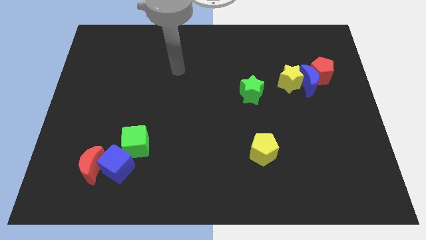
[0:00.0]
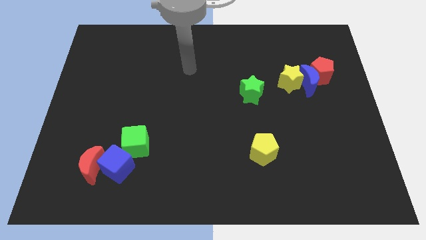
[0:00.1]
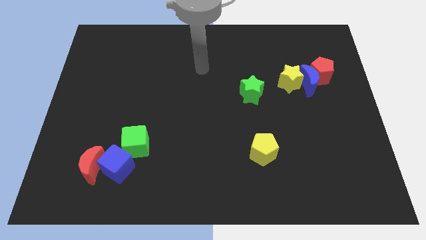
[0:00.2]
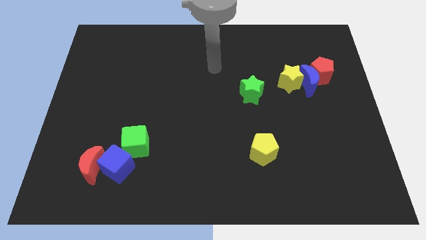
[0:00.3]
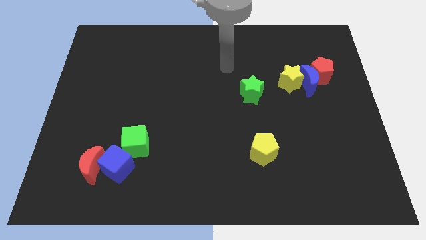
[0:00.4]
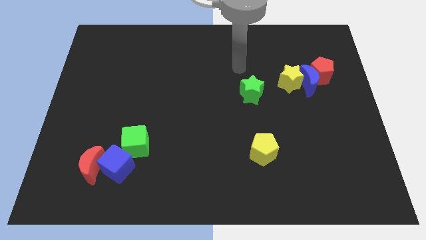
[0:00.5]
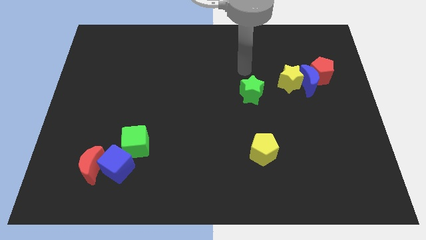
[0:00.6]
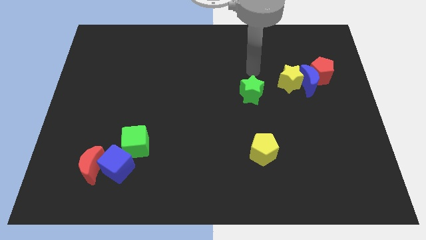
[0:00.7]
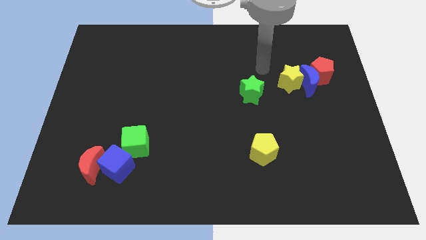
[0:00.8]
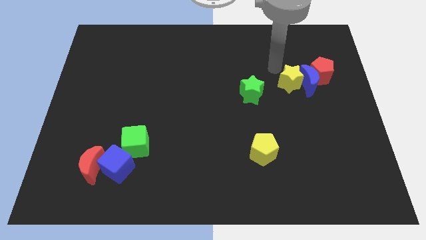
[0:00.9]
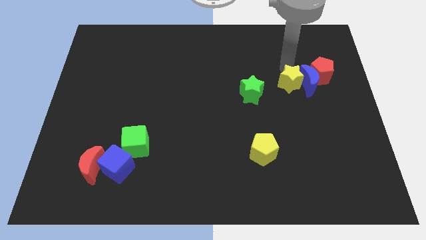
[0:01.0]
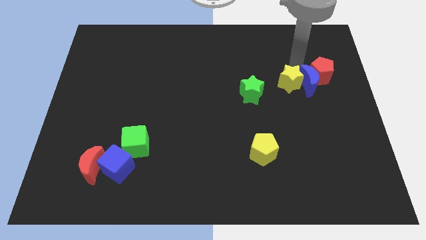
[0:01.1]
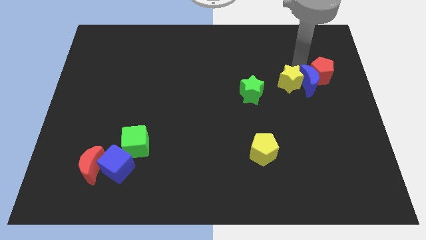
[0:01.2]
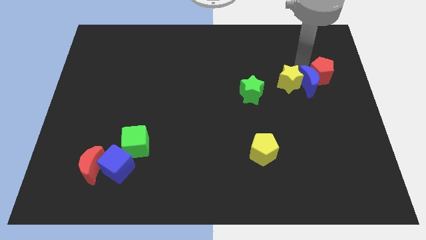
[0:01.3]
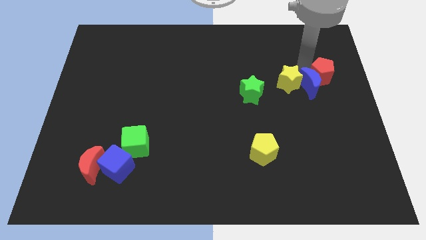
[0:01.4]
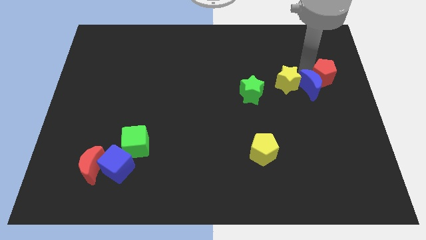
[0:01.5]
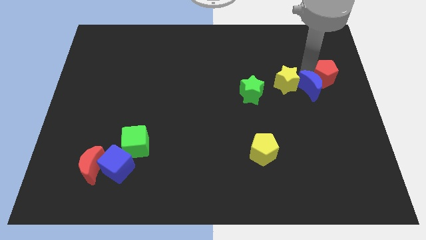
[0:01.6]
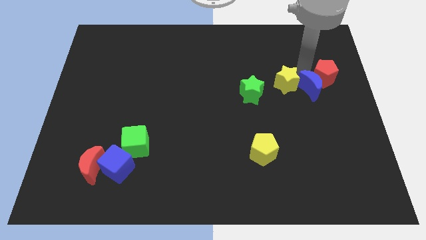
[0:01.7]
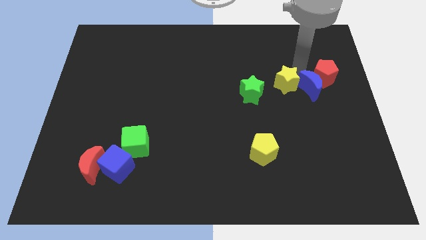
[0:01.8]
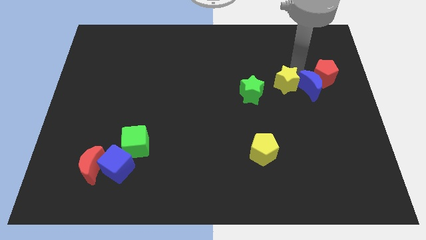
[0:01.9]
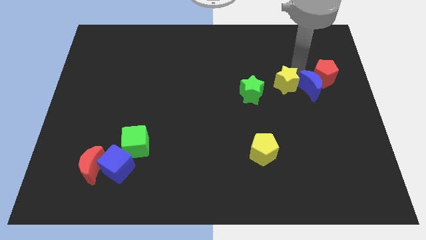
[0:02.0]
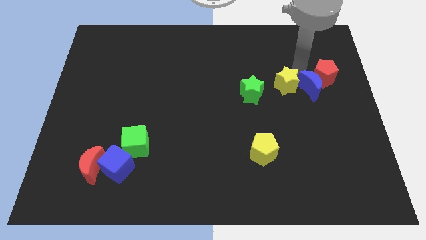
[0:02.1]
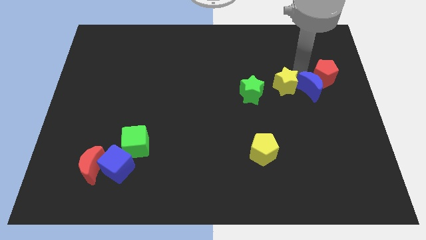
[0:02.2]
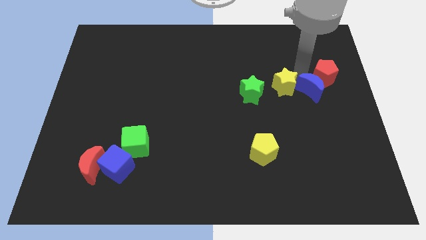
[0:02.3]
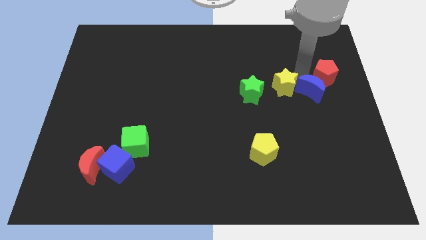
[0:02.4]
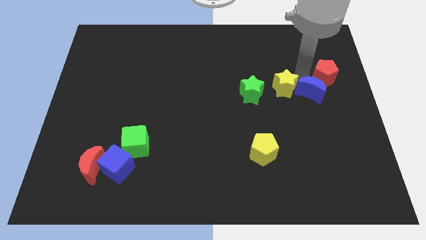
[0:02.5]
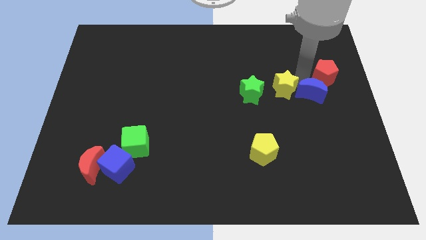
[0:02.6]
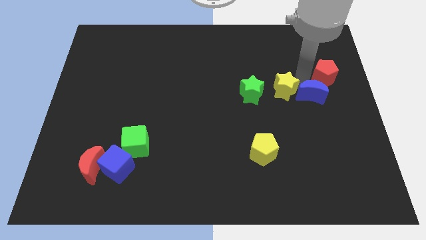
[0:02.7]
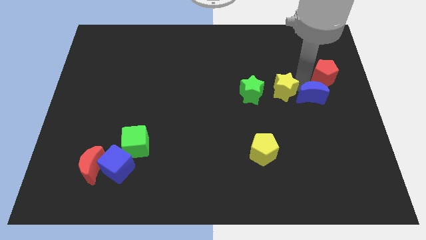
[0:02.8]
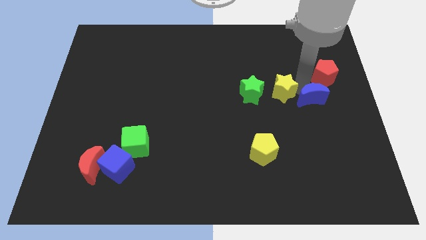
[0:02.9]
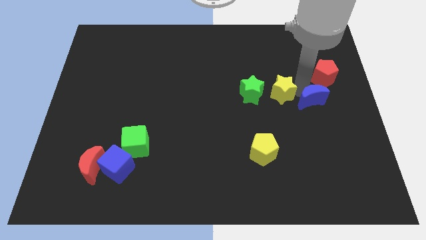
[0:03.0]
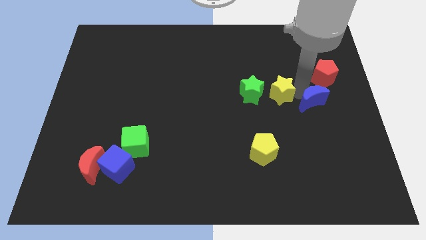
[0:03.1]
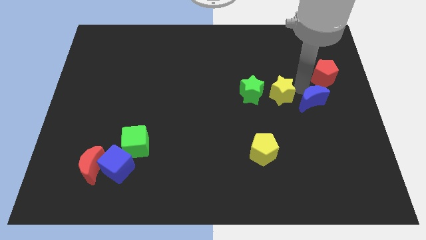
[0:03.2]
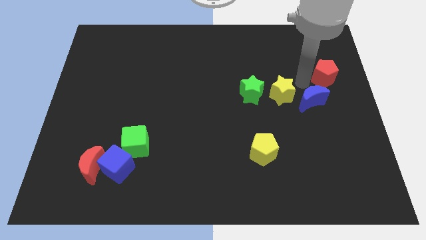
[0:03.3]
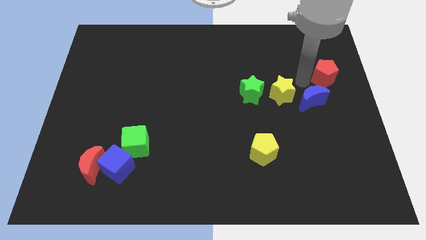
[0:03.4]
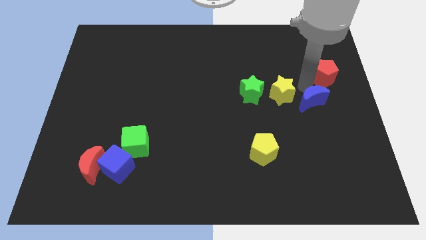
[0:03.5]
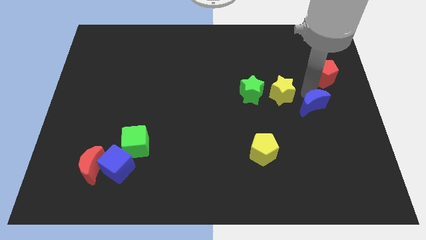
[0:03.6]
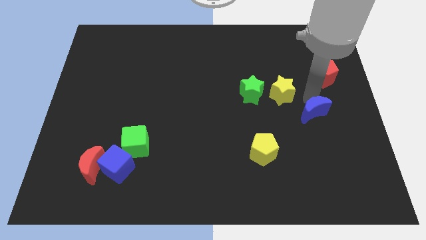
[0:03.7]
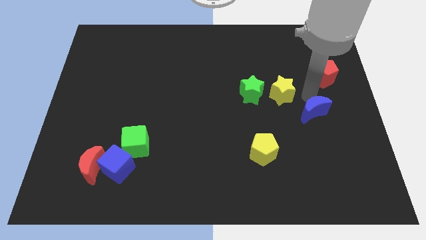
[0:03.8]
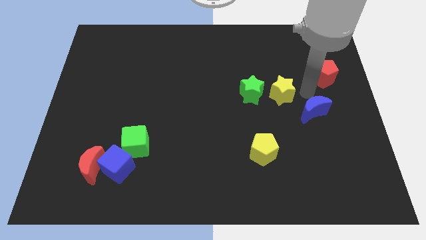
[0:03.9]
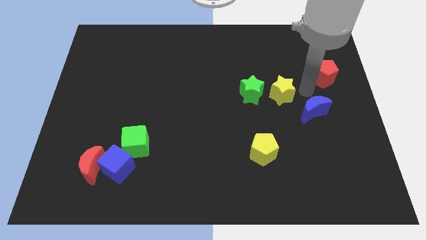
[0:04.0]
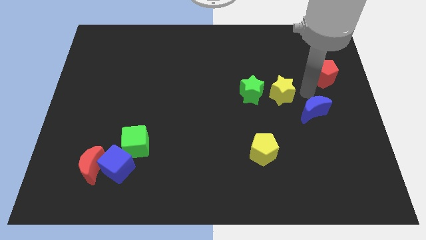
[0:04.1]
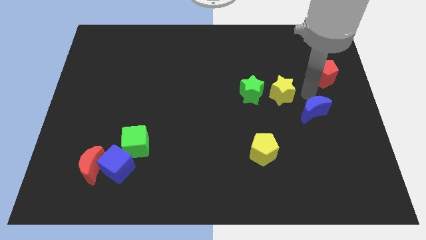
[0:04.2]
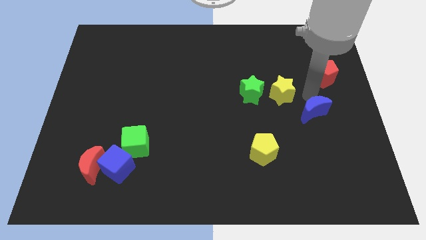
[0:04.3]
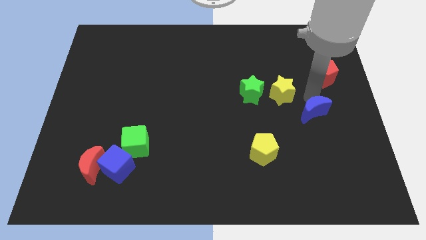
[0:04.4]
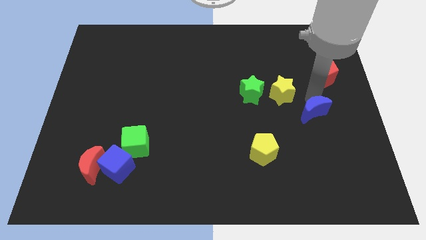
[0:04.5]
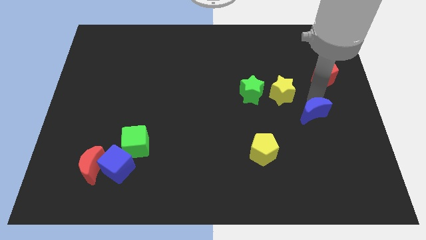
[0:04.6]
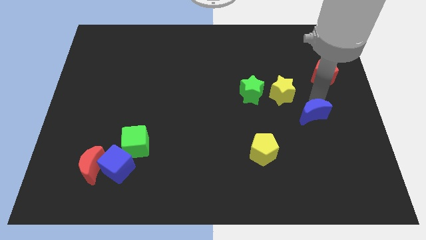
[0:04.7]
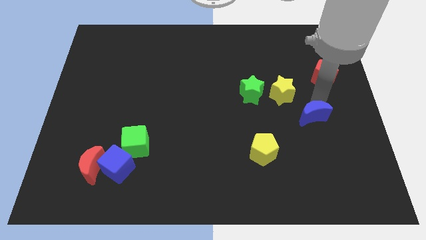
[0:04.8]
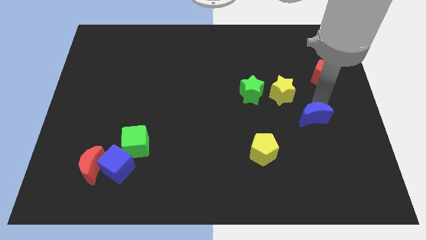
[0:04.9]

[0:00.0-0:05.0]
separate the blue moon from the red pentagon and yellow star

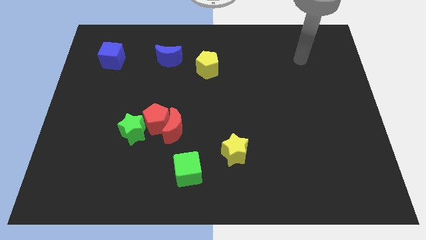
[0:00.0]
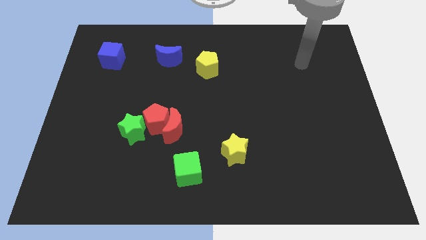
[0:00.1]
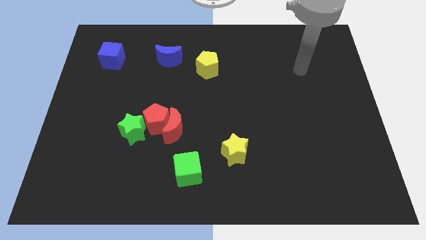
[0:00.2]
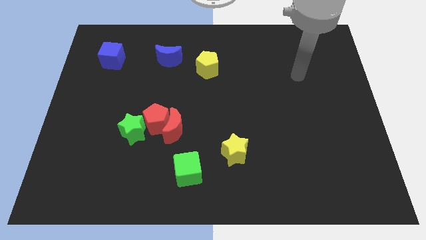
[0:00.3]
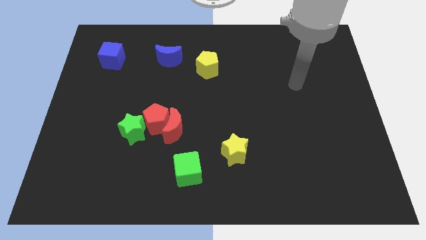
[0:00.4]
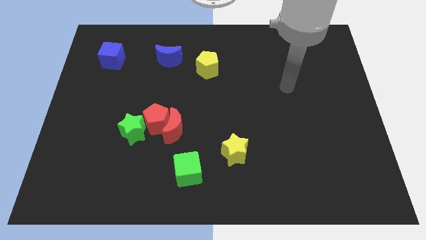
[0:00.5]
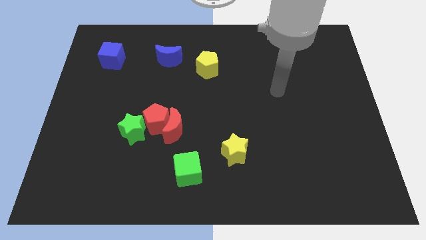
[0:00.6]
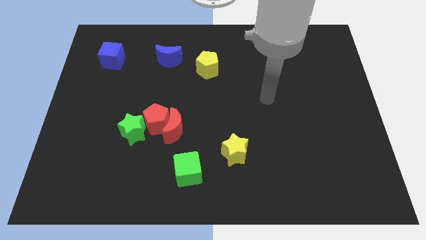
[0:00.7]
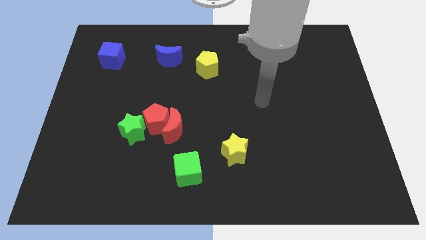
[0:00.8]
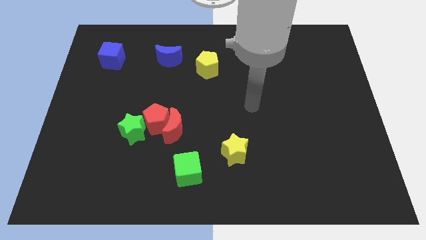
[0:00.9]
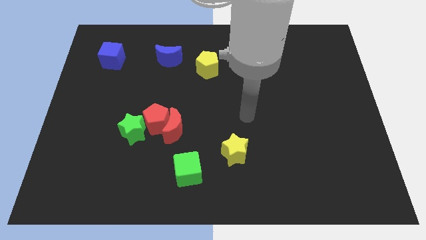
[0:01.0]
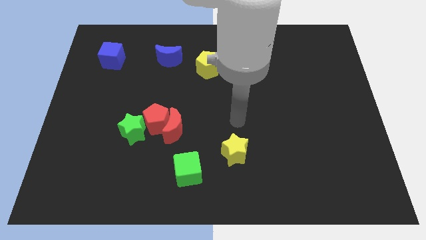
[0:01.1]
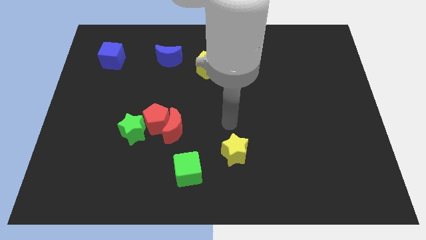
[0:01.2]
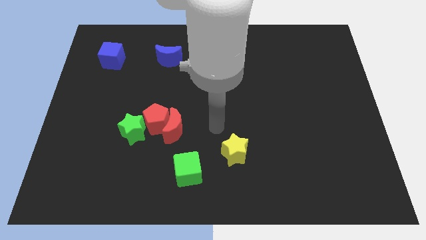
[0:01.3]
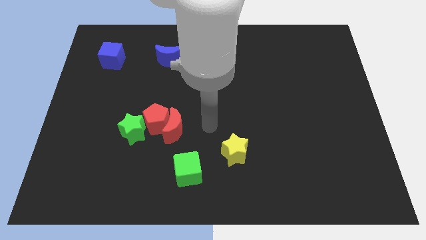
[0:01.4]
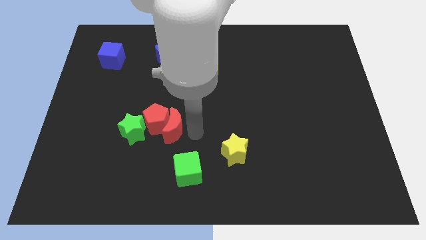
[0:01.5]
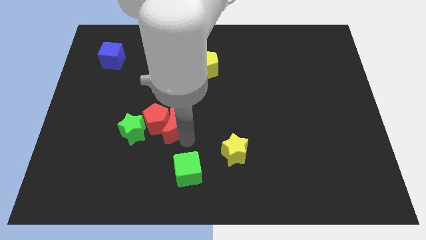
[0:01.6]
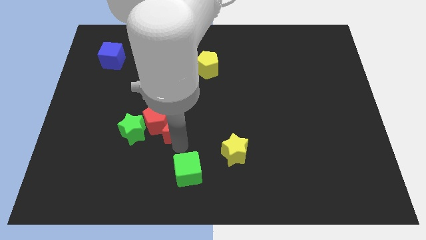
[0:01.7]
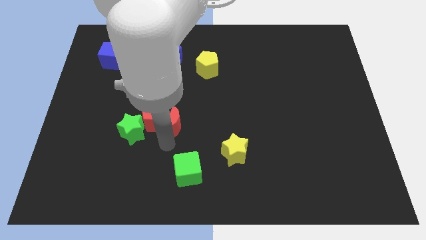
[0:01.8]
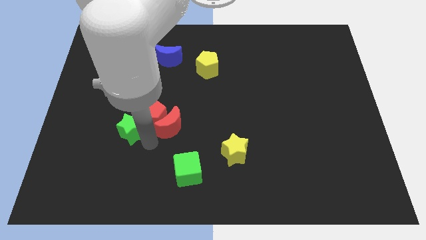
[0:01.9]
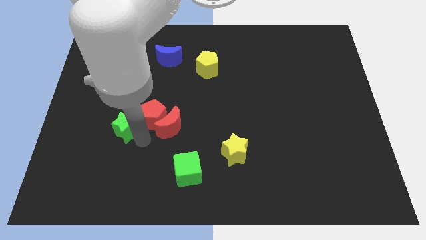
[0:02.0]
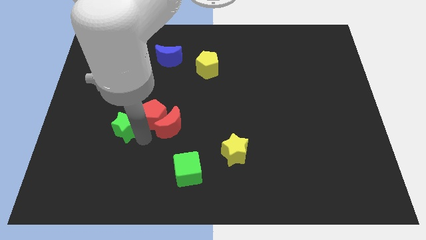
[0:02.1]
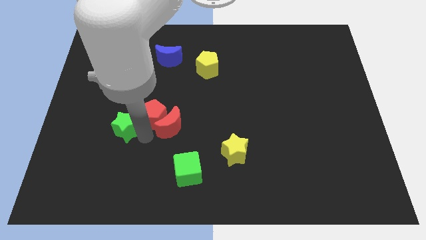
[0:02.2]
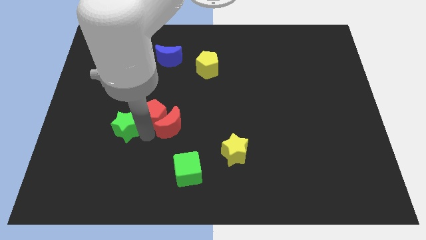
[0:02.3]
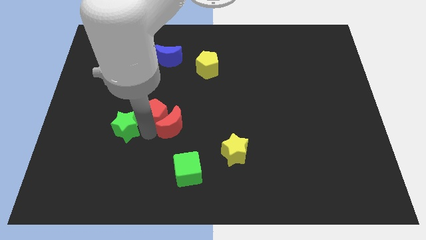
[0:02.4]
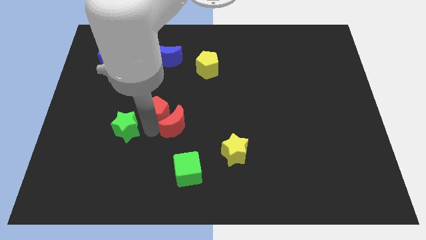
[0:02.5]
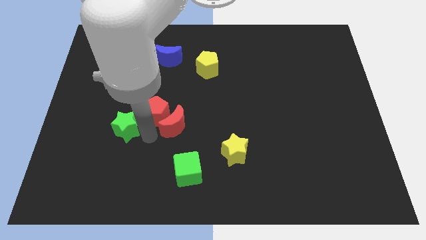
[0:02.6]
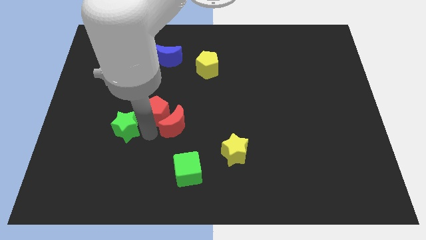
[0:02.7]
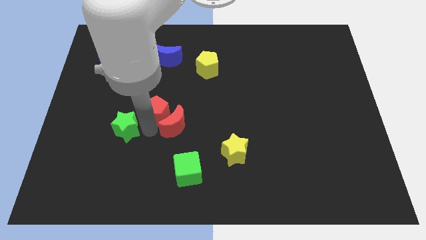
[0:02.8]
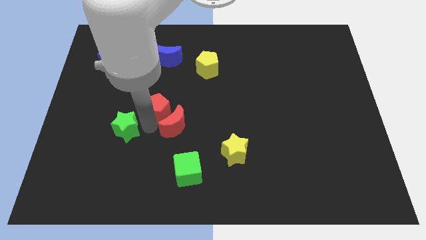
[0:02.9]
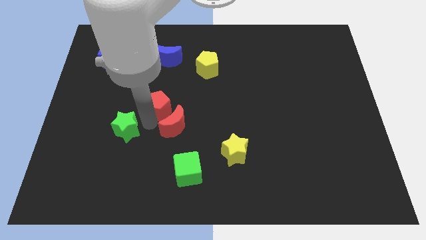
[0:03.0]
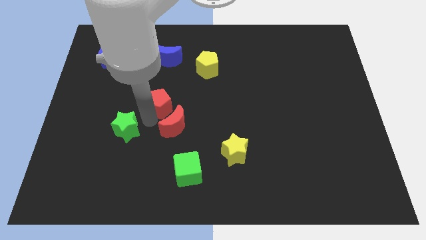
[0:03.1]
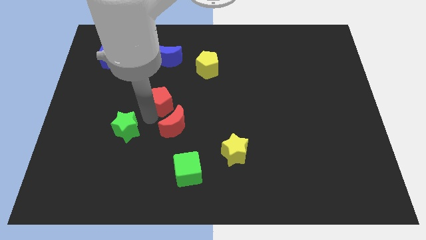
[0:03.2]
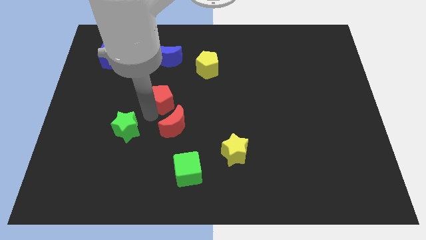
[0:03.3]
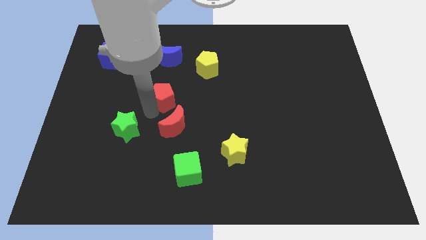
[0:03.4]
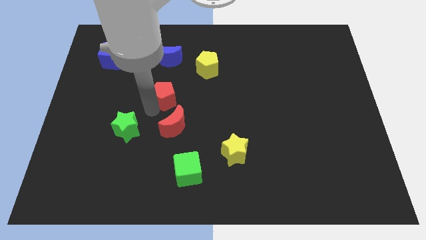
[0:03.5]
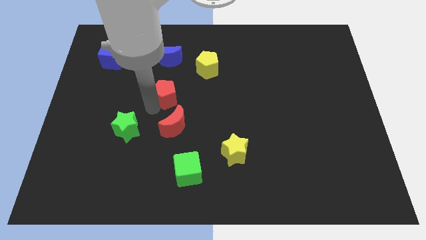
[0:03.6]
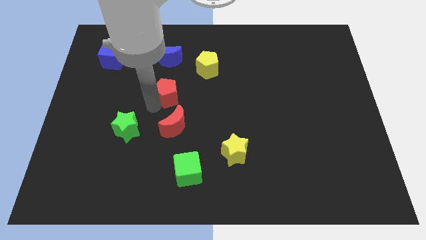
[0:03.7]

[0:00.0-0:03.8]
pull the red pentagon apart from the red moon and green star

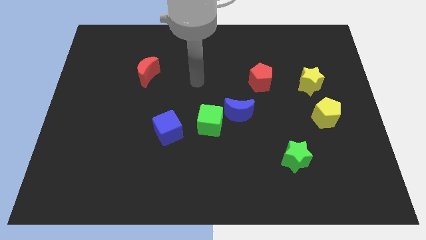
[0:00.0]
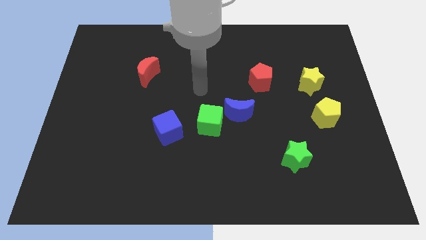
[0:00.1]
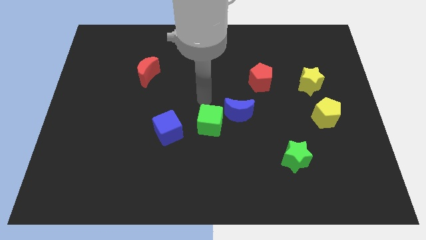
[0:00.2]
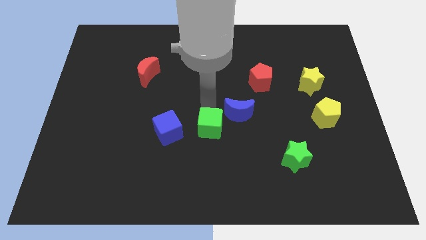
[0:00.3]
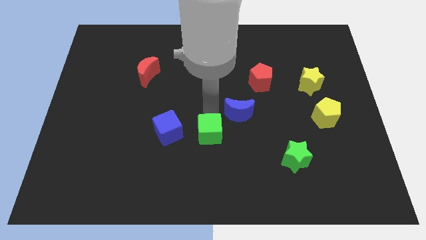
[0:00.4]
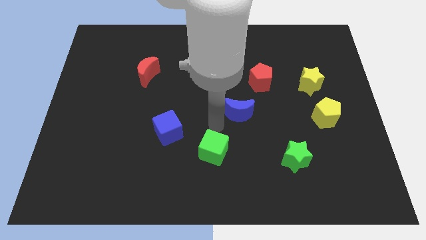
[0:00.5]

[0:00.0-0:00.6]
separate the blue moon from the green cube
